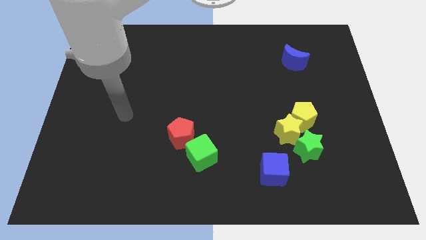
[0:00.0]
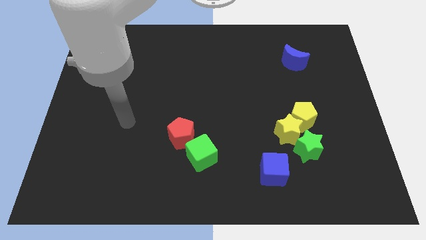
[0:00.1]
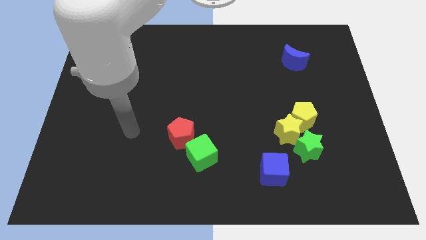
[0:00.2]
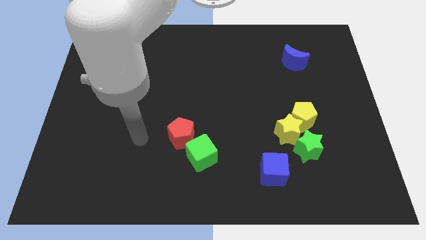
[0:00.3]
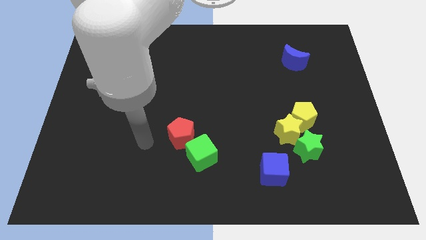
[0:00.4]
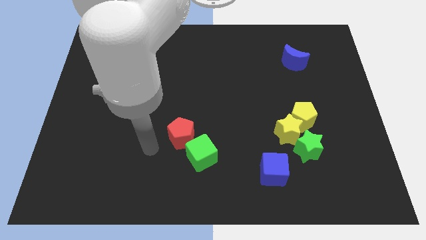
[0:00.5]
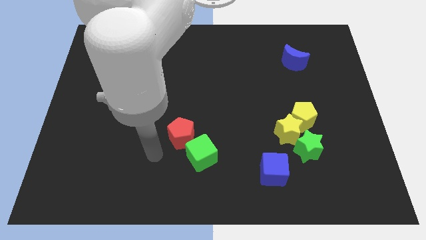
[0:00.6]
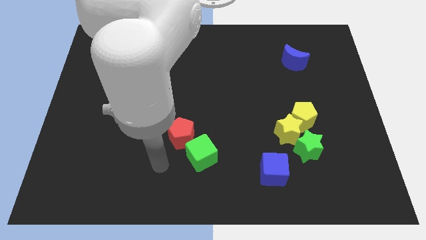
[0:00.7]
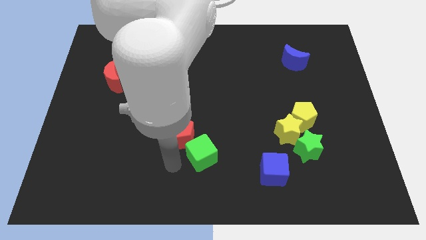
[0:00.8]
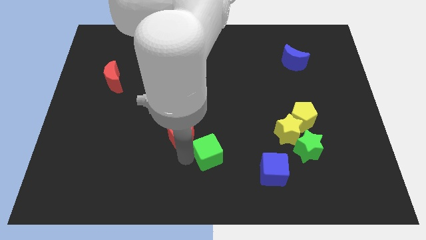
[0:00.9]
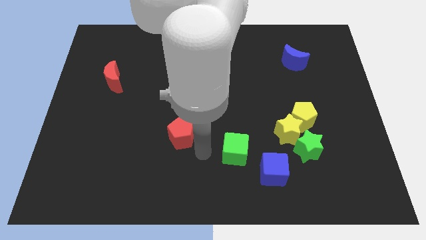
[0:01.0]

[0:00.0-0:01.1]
move the red pentagon away from the green cube

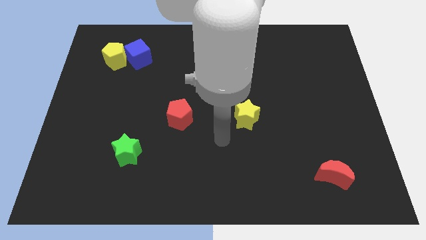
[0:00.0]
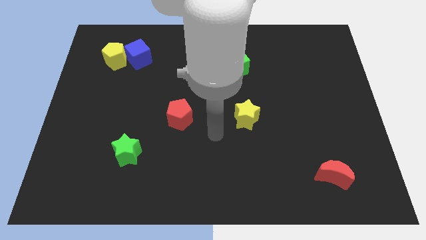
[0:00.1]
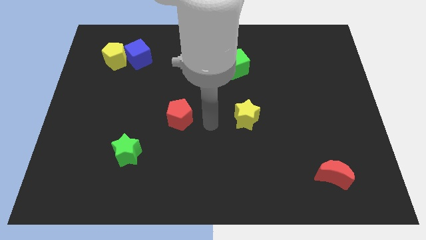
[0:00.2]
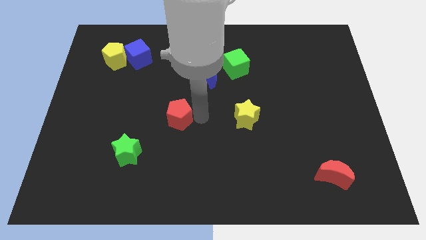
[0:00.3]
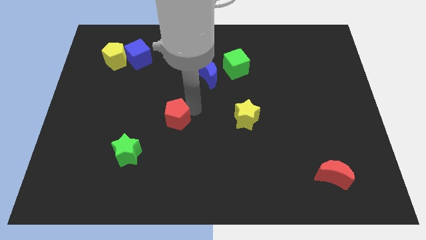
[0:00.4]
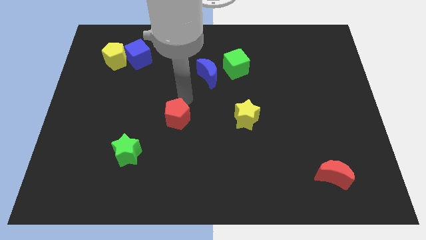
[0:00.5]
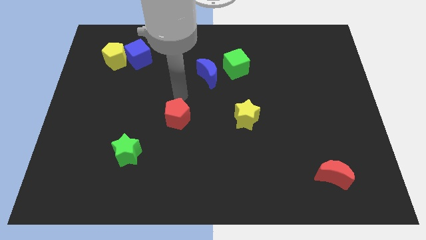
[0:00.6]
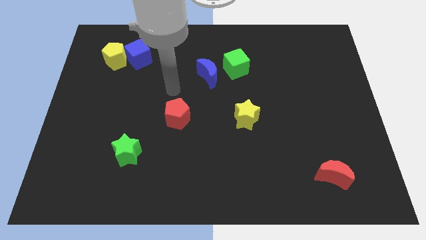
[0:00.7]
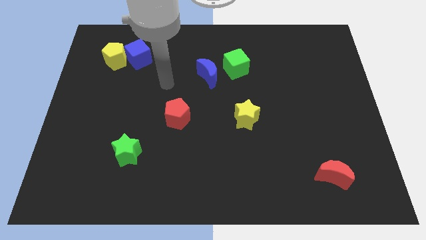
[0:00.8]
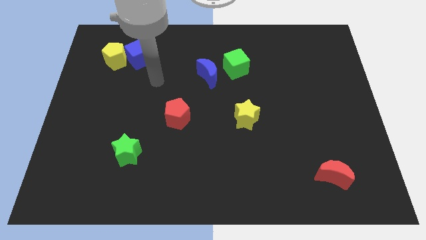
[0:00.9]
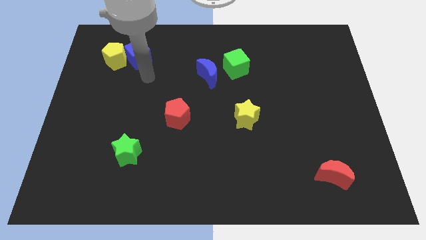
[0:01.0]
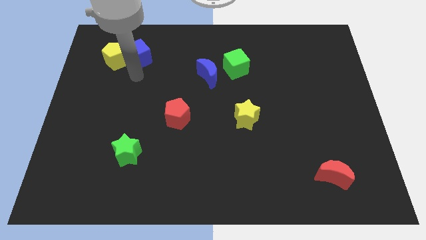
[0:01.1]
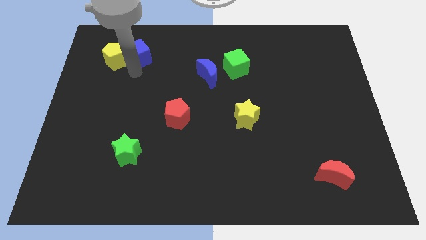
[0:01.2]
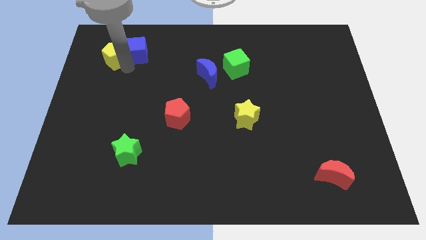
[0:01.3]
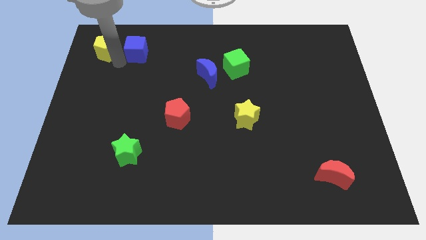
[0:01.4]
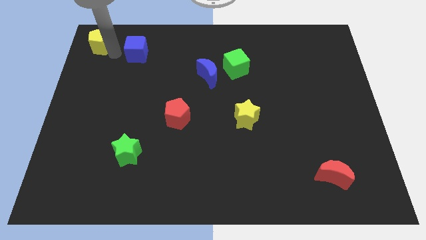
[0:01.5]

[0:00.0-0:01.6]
separate the blue cube from the yellow pentagon

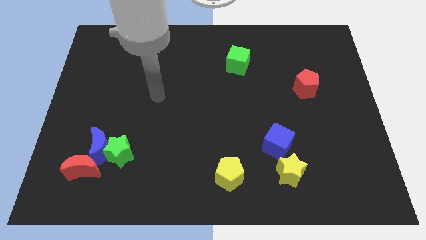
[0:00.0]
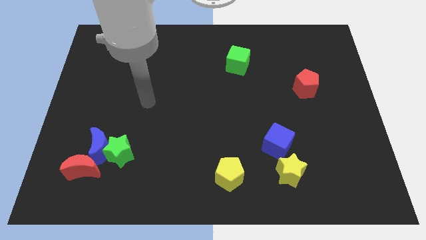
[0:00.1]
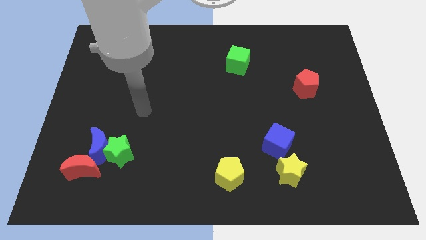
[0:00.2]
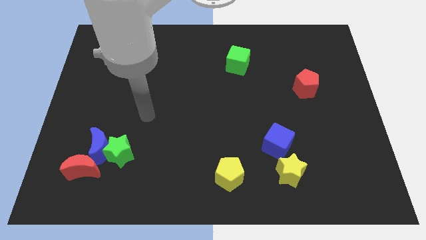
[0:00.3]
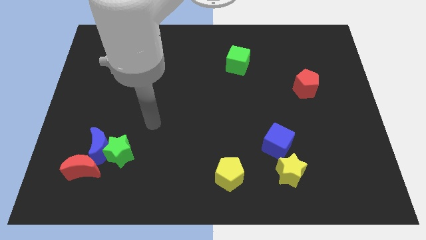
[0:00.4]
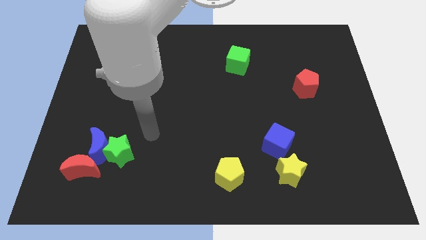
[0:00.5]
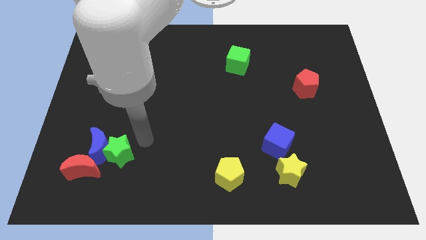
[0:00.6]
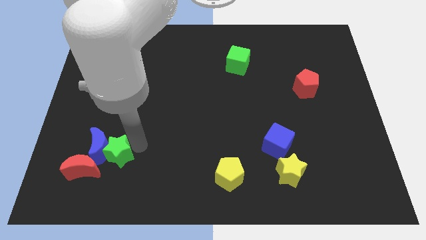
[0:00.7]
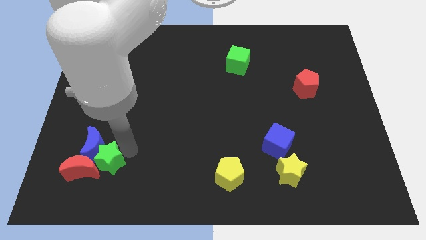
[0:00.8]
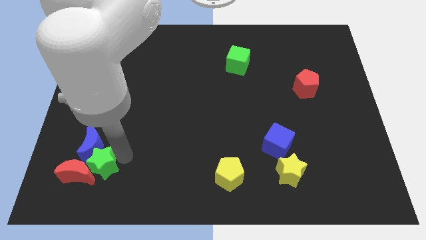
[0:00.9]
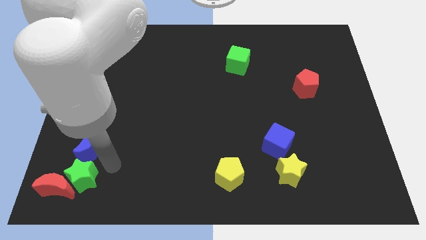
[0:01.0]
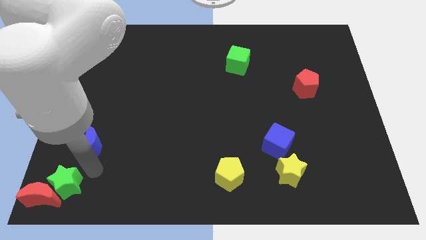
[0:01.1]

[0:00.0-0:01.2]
pull the blue moon apart from the green star and red moon

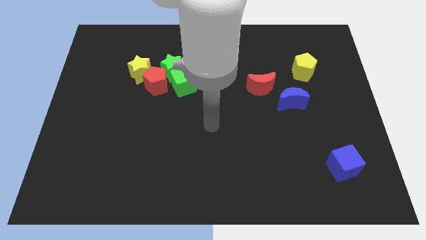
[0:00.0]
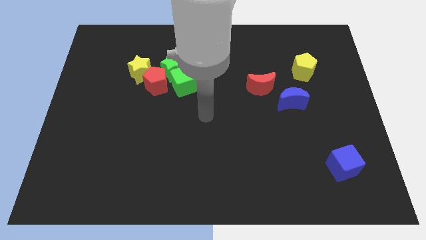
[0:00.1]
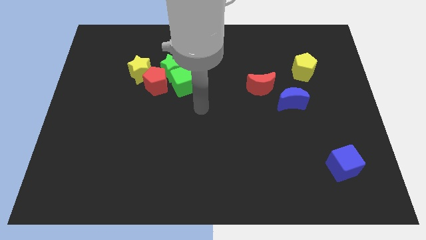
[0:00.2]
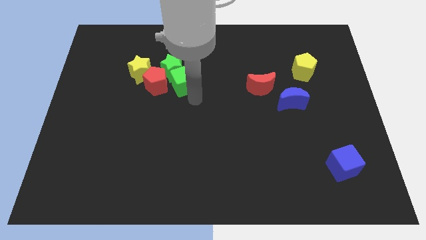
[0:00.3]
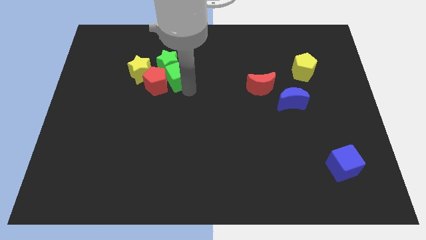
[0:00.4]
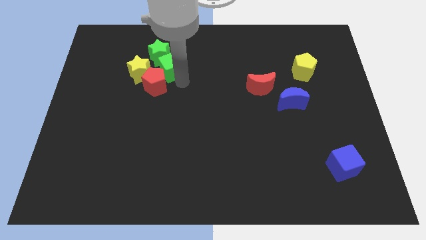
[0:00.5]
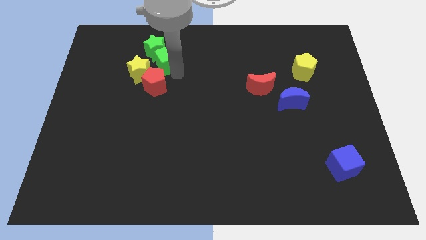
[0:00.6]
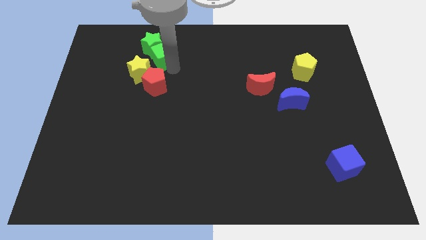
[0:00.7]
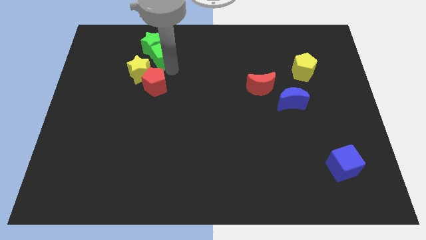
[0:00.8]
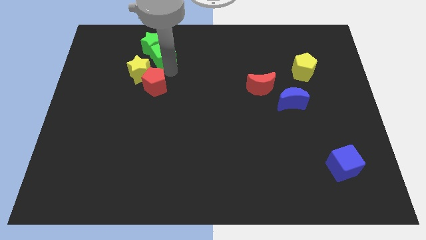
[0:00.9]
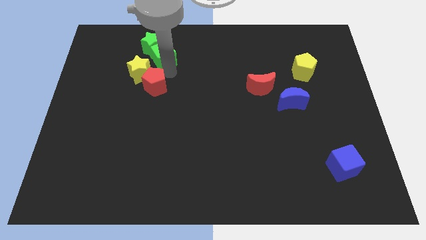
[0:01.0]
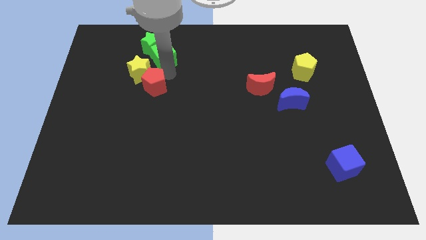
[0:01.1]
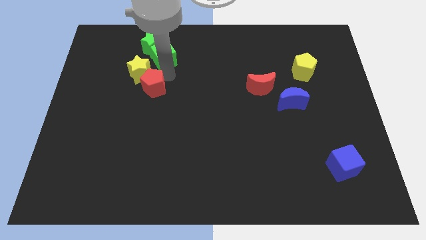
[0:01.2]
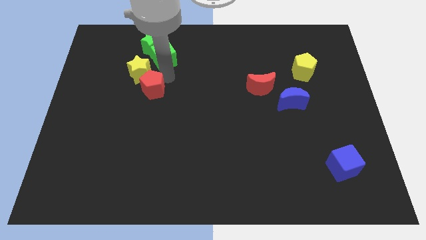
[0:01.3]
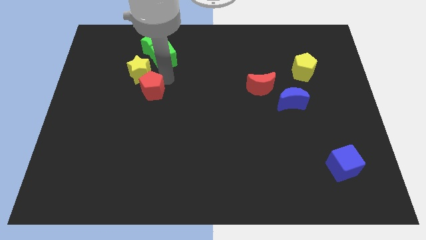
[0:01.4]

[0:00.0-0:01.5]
pull the red pentagon apart from the group of blocks

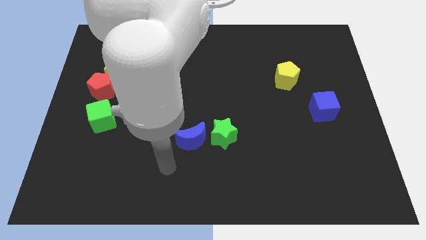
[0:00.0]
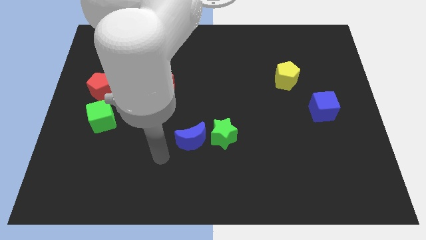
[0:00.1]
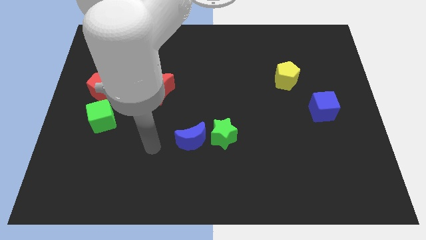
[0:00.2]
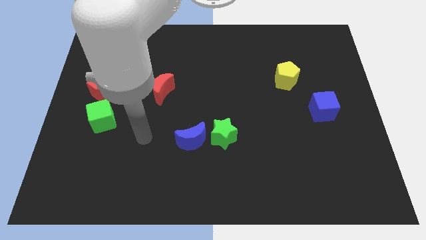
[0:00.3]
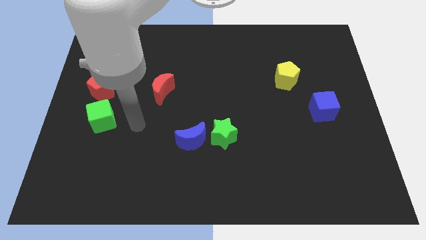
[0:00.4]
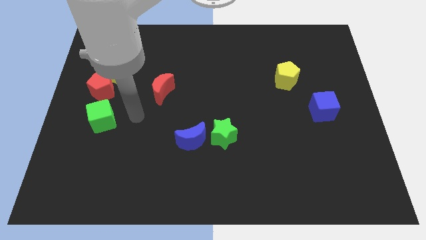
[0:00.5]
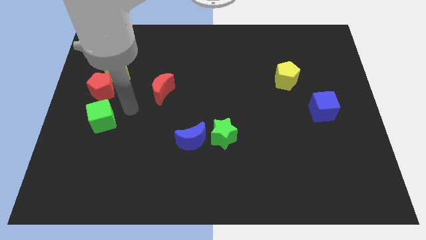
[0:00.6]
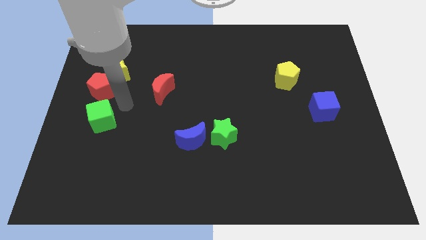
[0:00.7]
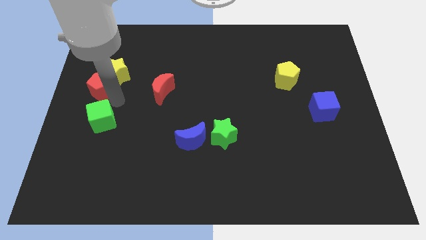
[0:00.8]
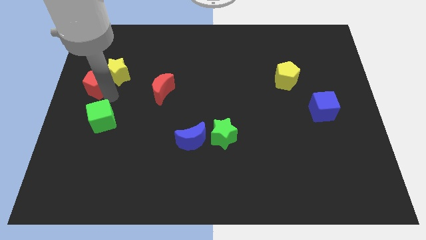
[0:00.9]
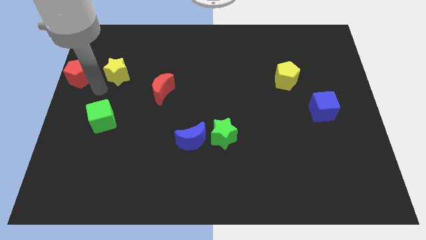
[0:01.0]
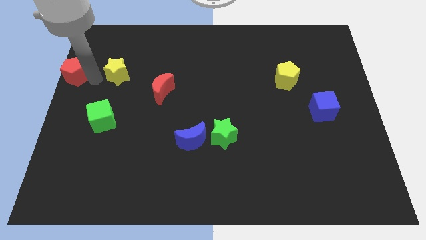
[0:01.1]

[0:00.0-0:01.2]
move the yellow star away from the red pentagon

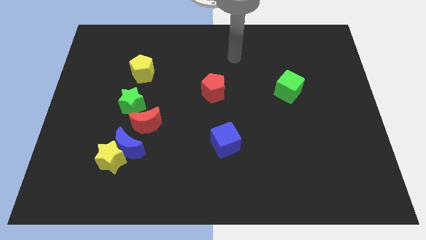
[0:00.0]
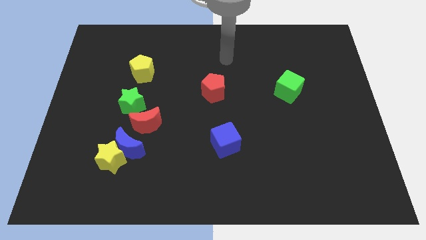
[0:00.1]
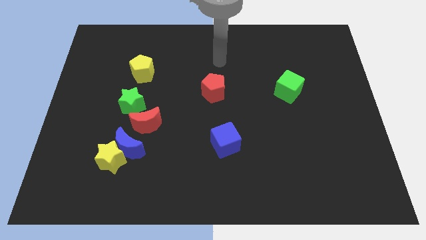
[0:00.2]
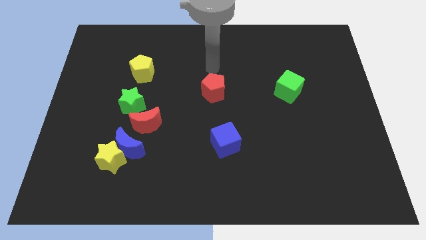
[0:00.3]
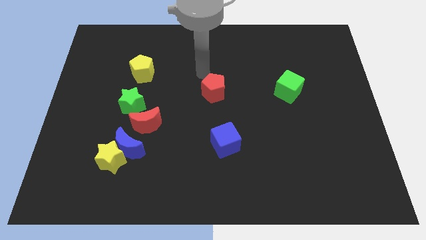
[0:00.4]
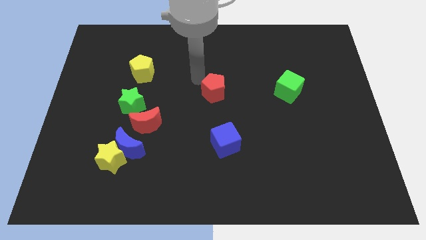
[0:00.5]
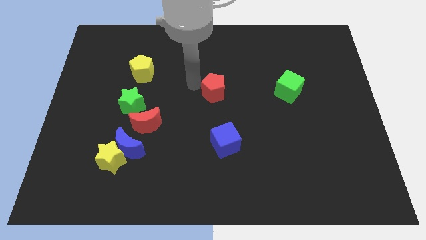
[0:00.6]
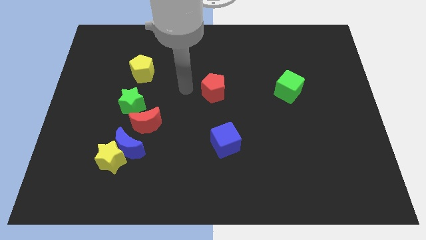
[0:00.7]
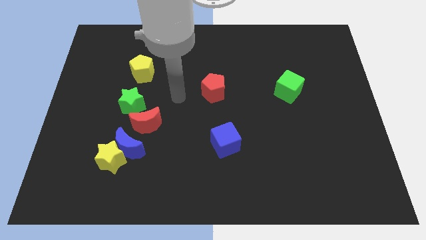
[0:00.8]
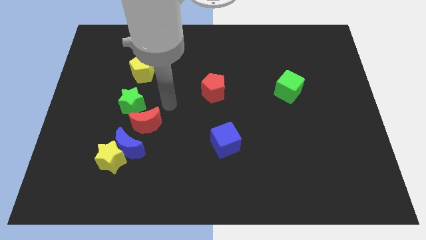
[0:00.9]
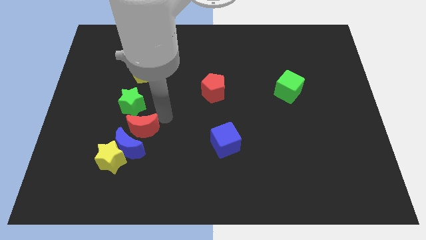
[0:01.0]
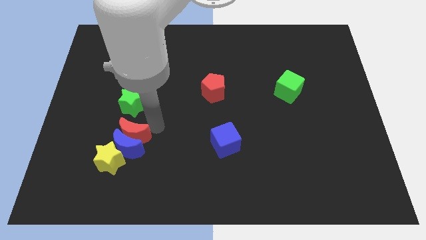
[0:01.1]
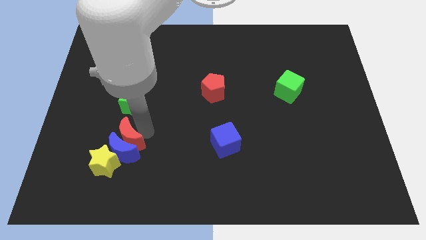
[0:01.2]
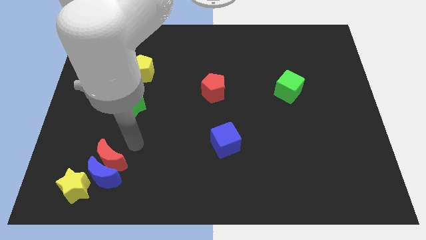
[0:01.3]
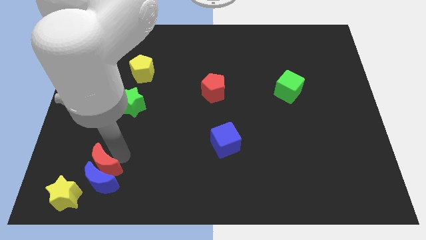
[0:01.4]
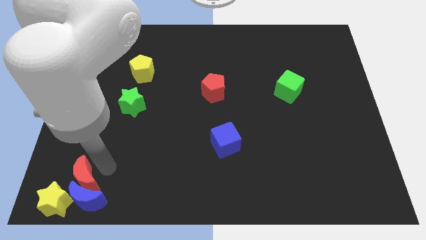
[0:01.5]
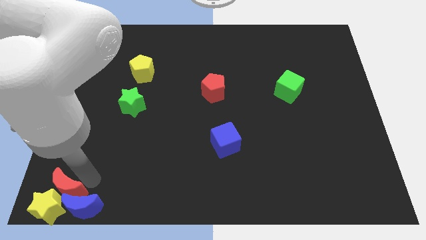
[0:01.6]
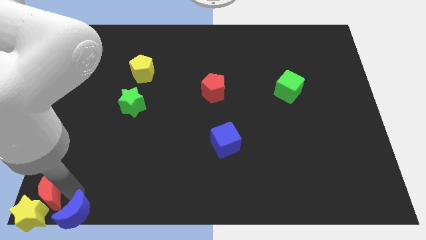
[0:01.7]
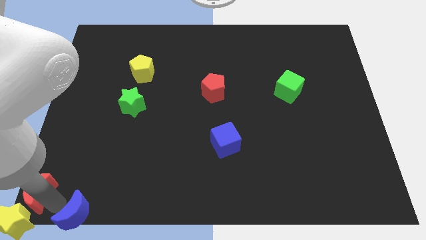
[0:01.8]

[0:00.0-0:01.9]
pull the yellow star apart from the blue moon

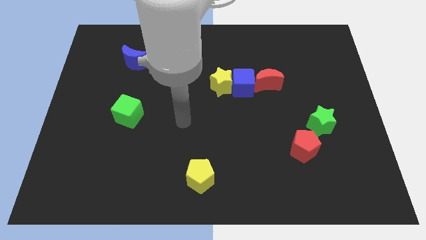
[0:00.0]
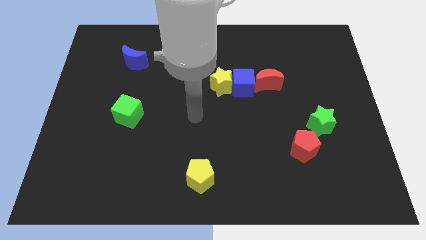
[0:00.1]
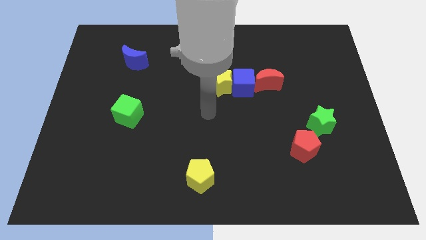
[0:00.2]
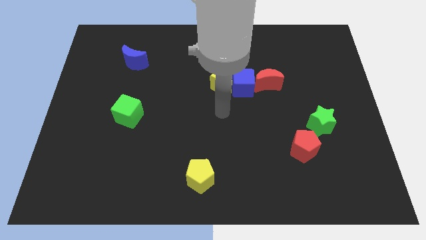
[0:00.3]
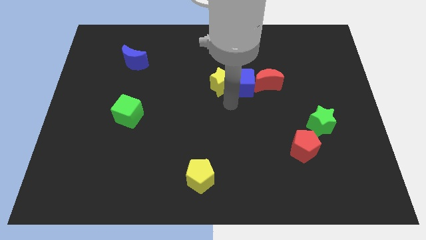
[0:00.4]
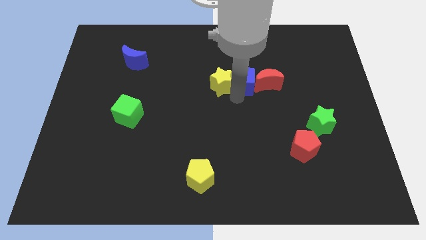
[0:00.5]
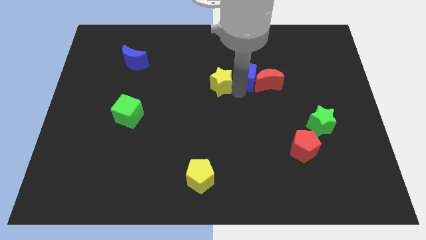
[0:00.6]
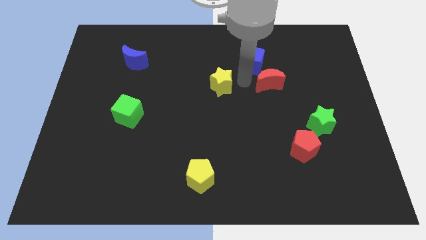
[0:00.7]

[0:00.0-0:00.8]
pull the yellow star apart from the blue cube

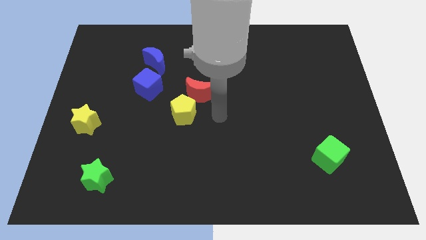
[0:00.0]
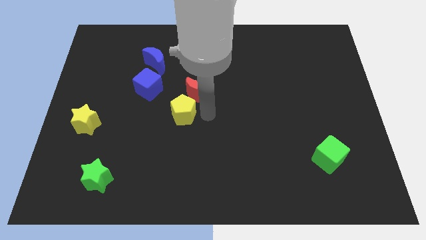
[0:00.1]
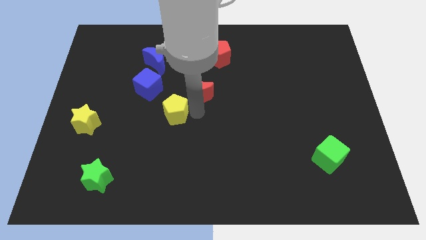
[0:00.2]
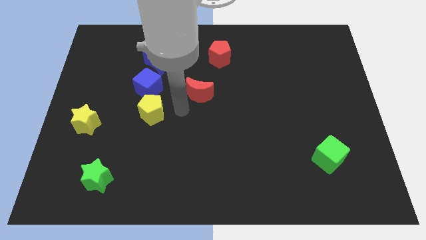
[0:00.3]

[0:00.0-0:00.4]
separate the red moon from the yellow pentagon
